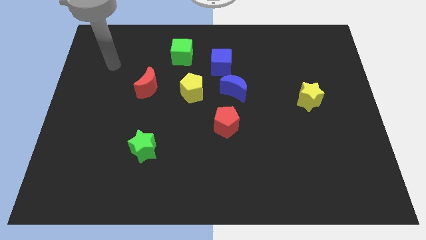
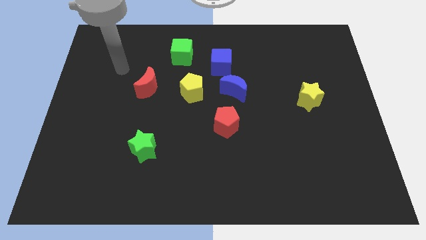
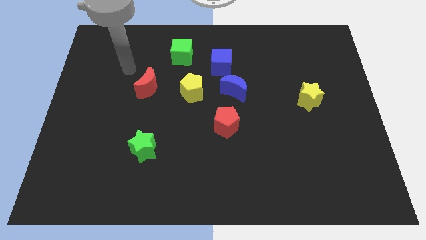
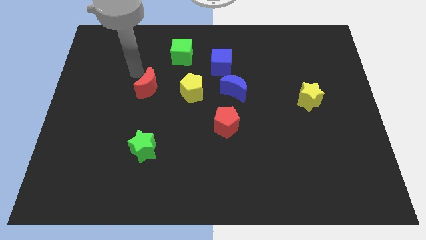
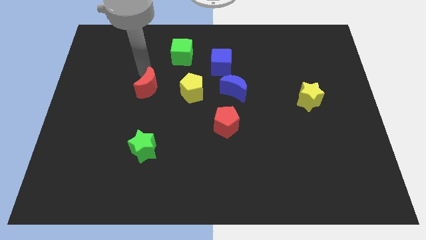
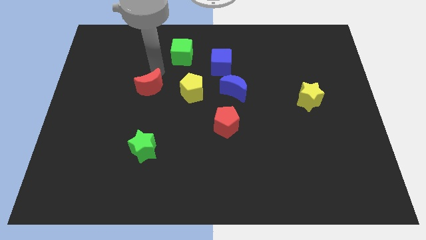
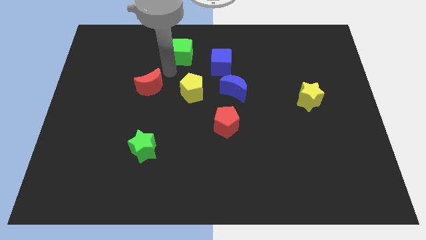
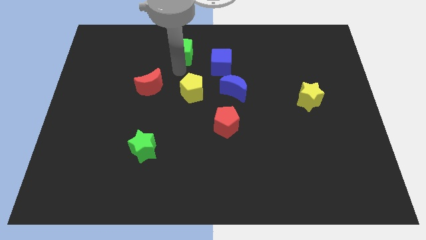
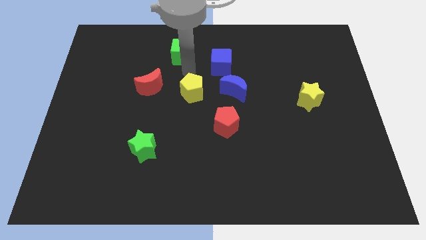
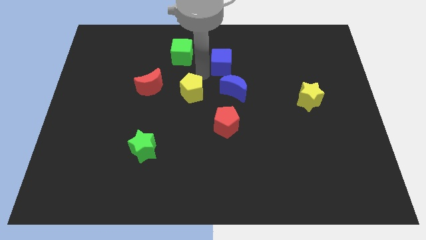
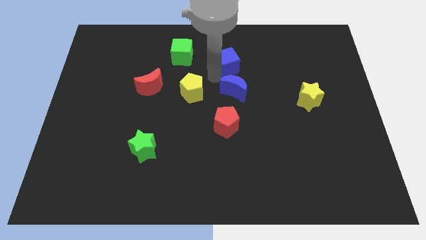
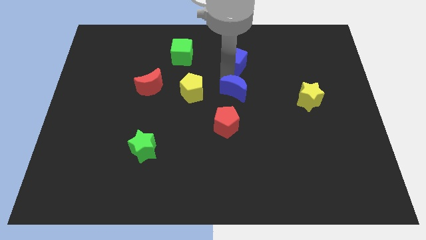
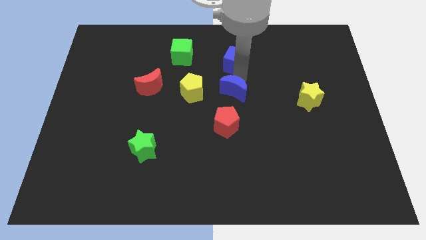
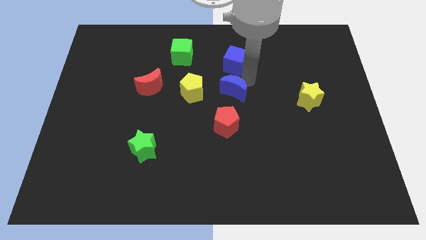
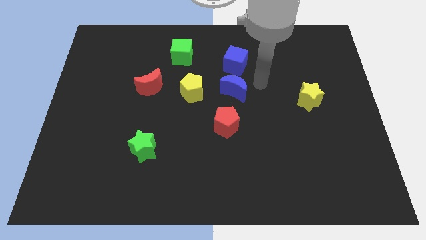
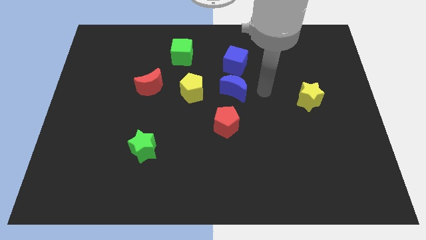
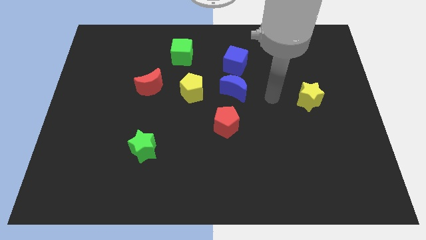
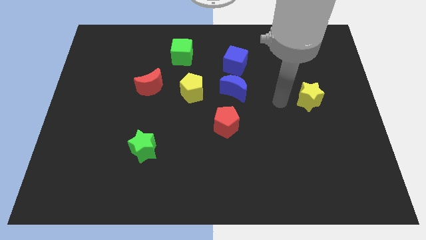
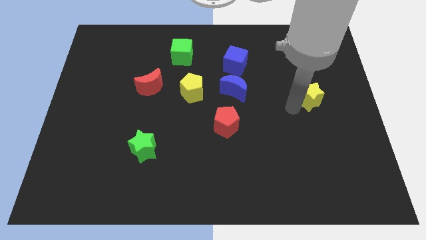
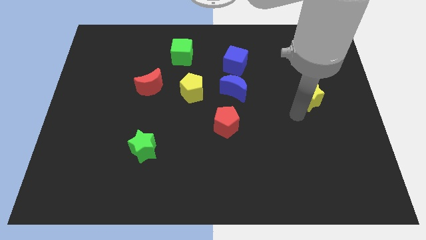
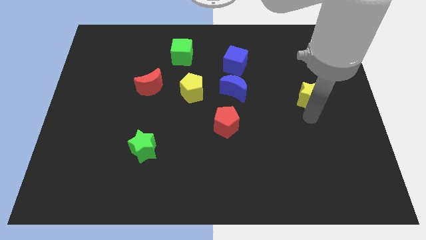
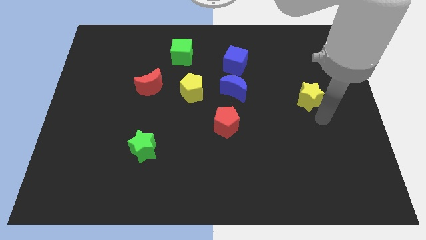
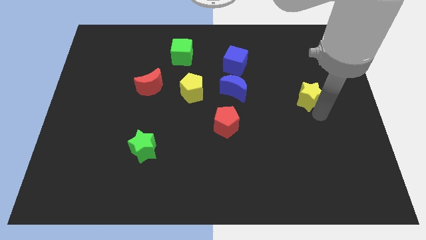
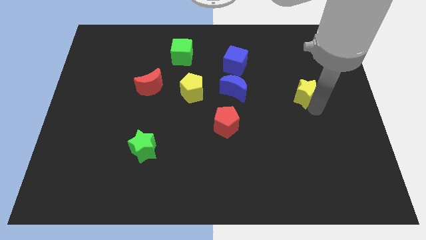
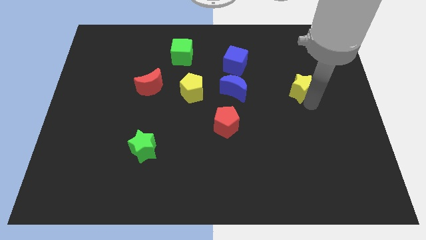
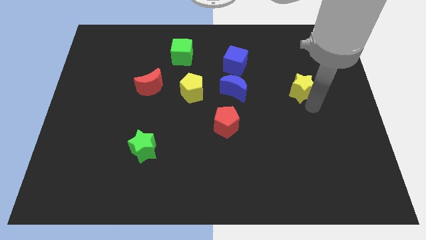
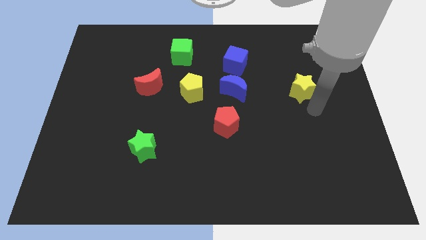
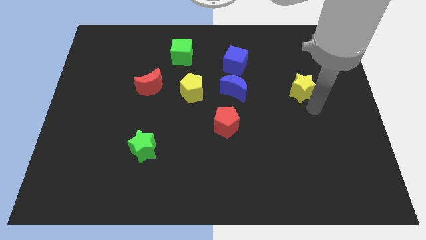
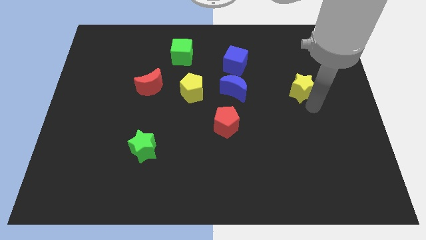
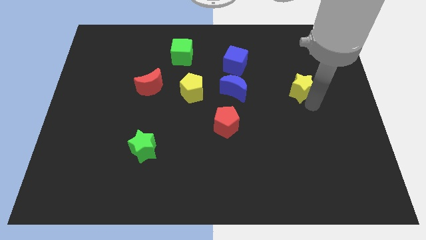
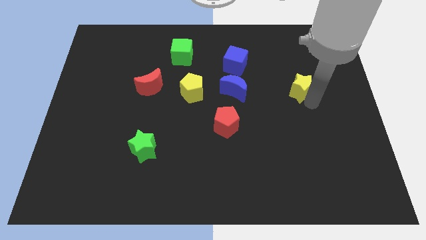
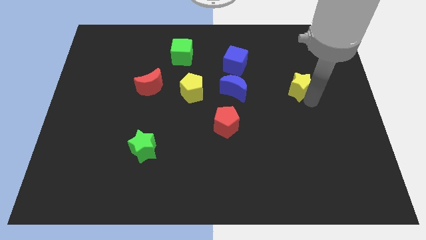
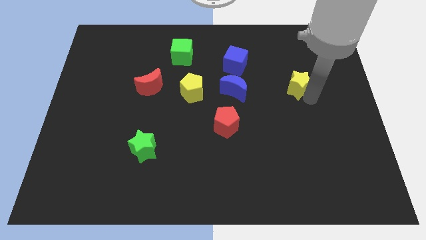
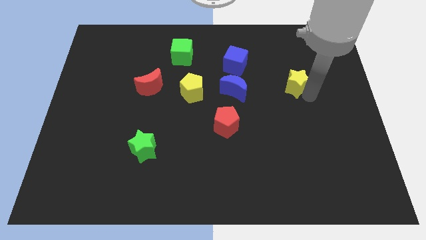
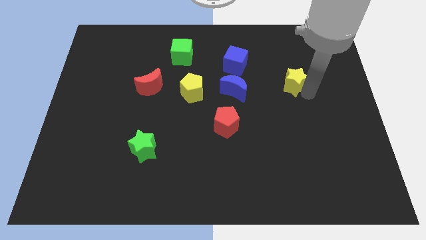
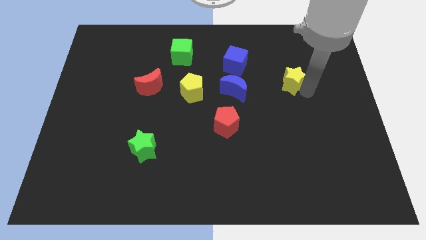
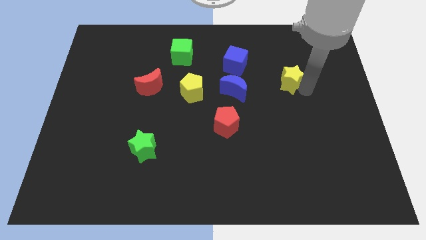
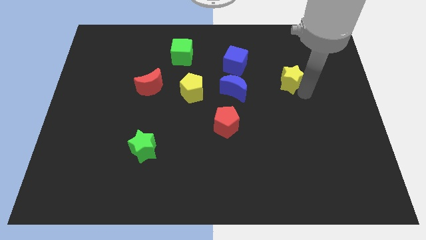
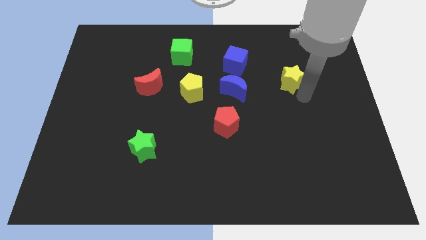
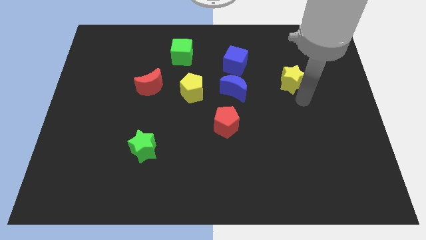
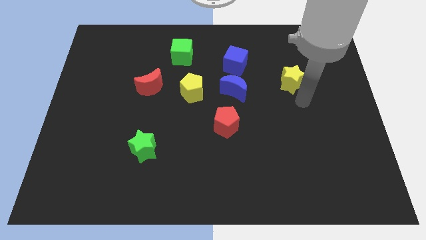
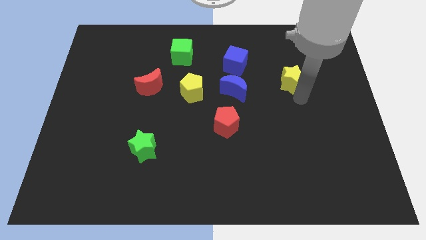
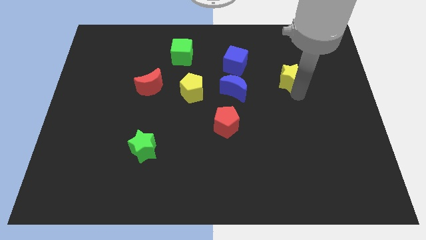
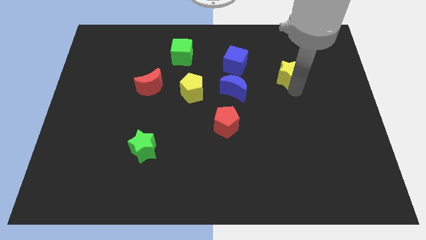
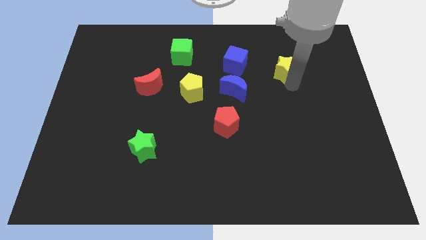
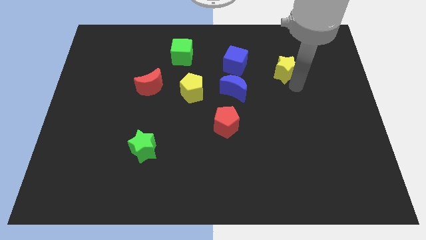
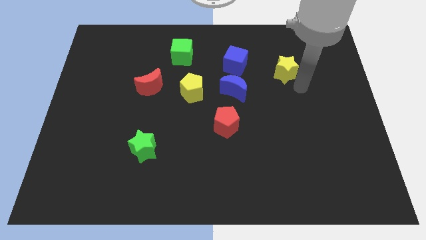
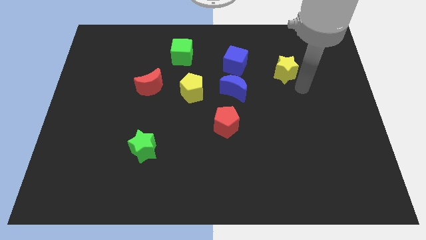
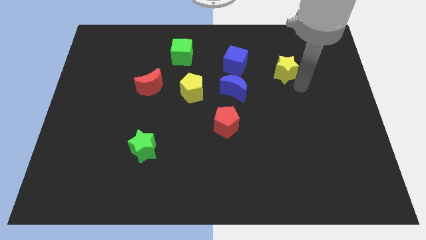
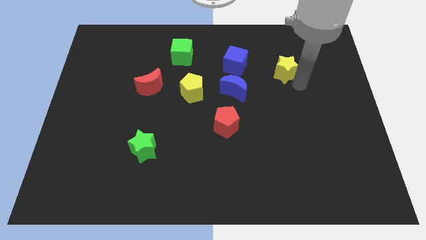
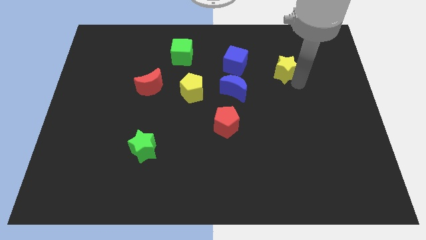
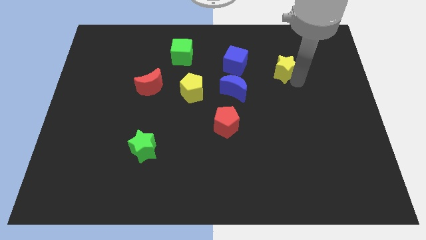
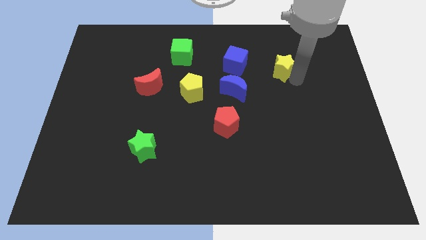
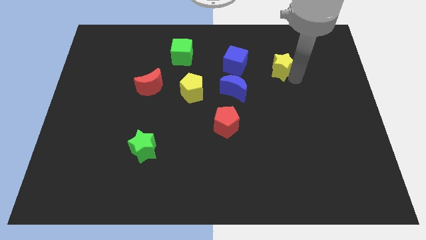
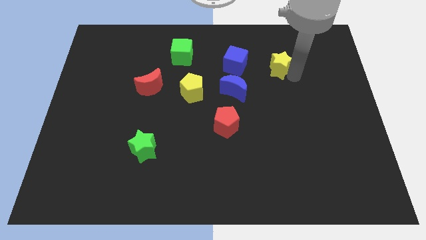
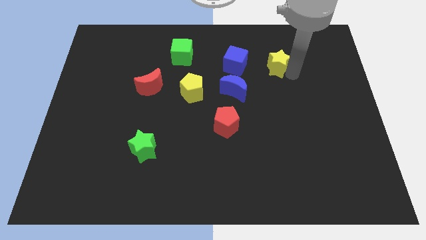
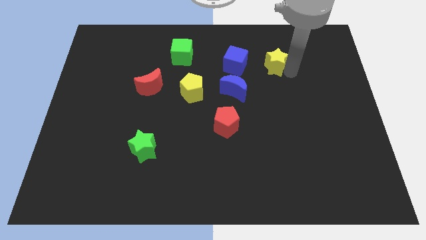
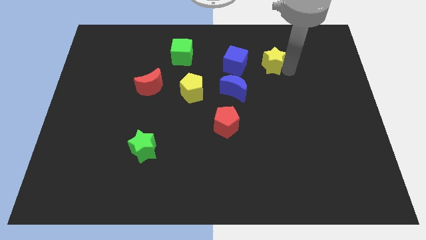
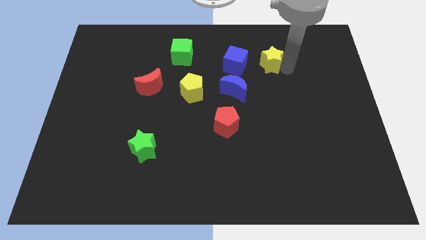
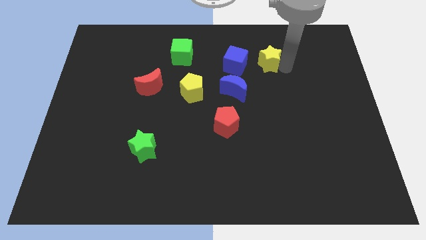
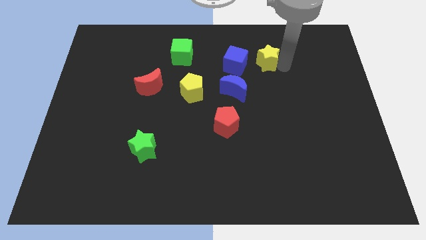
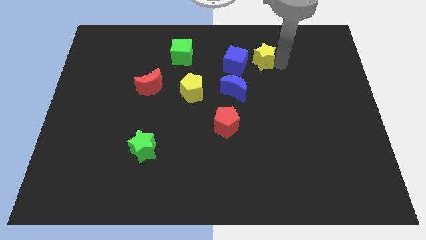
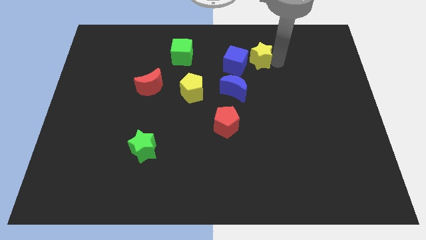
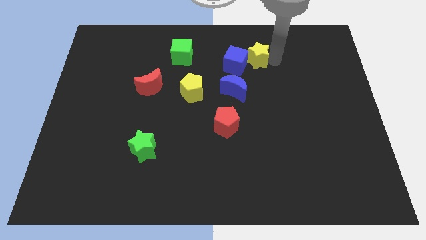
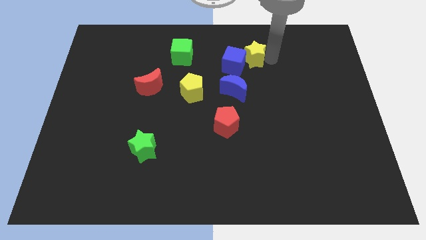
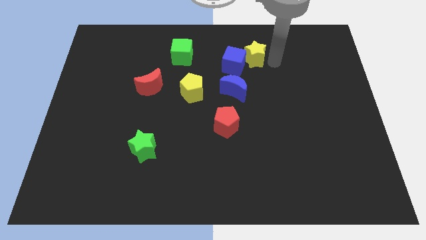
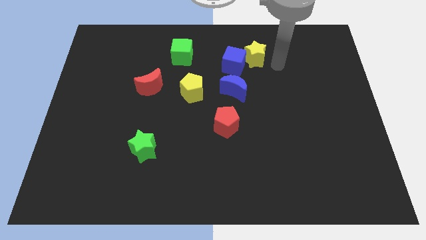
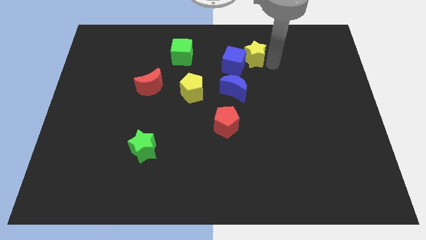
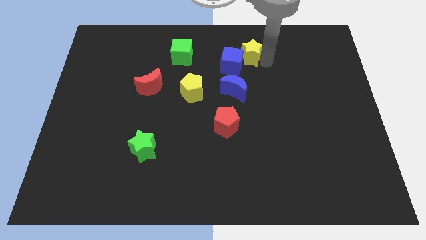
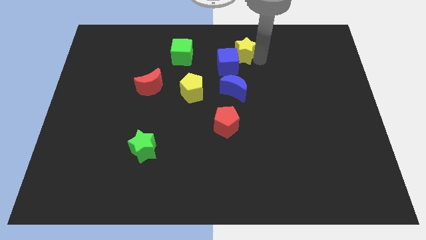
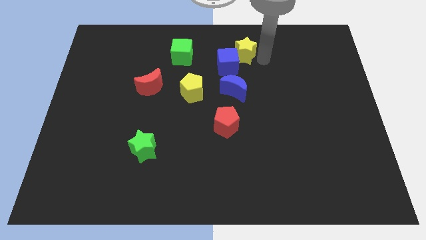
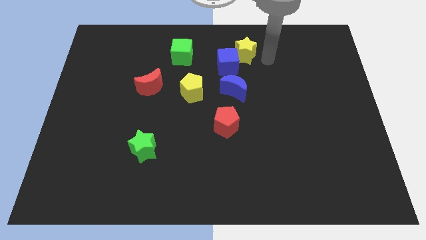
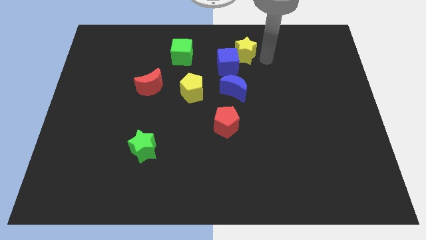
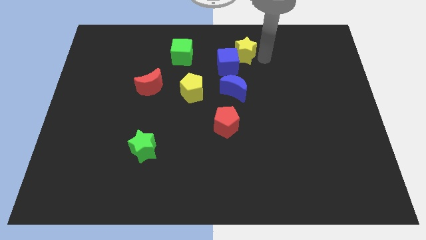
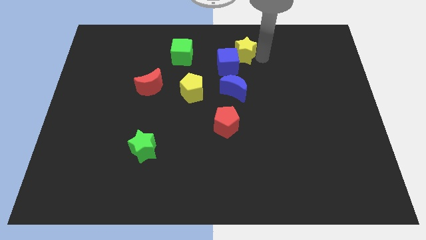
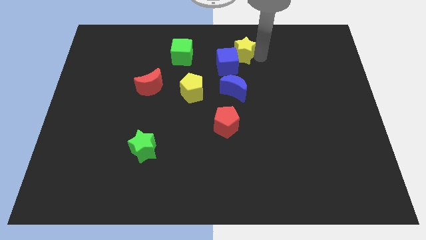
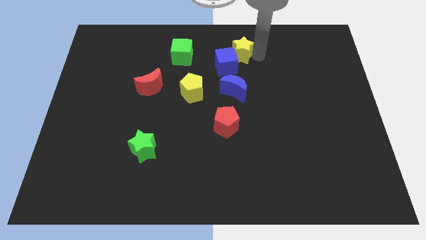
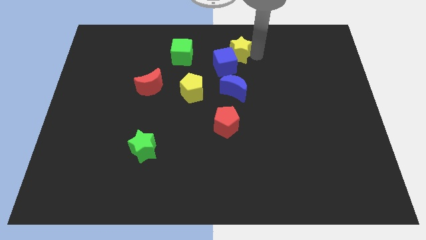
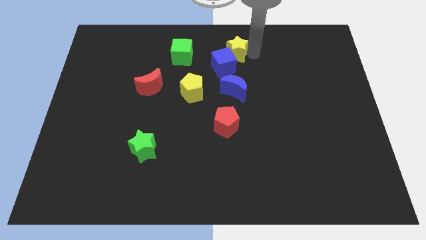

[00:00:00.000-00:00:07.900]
slide the yellow star to the top side
